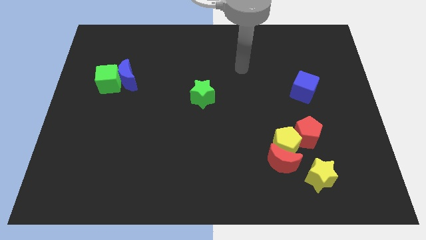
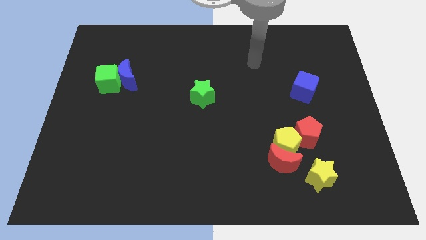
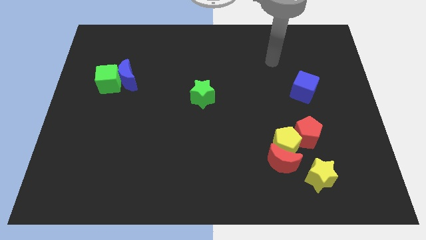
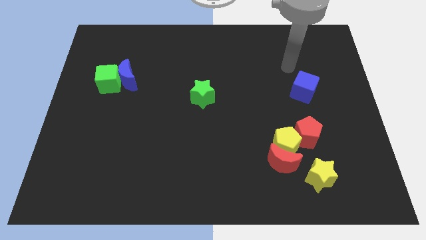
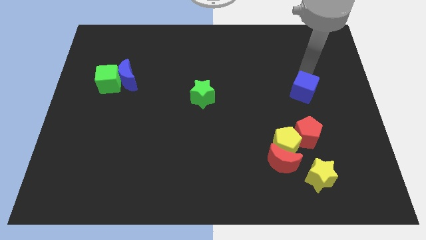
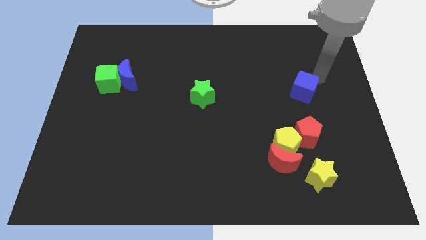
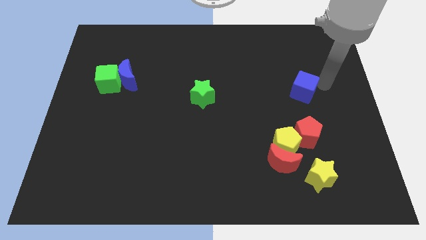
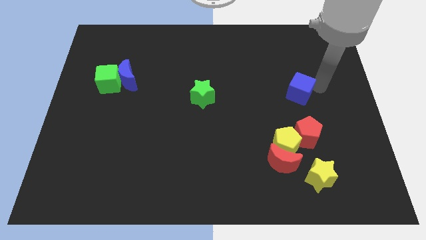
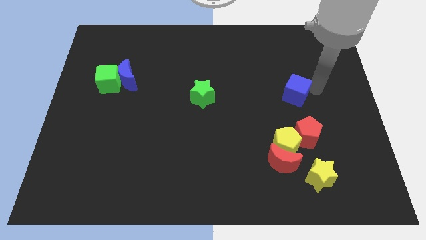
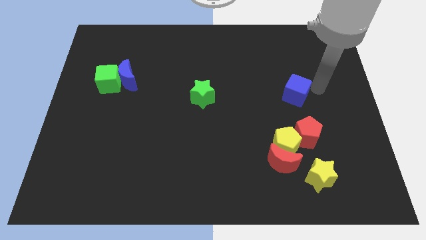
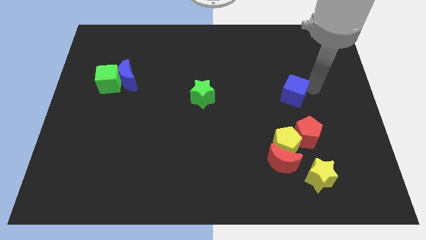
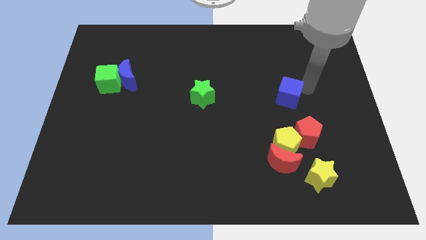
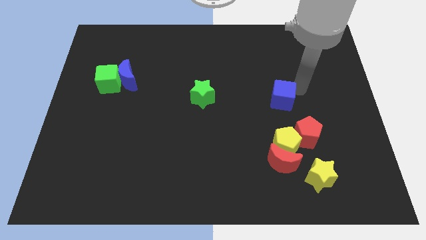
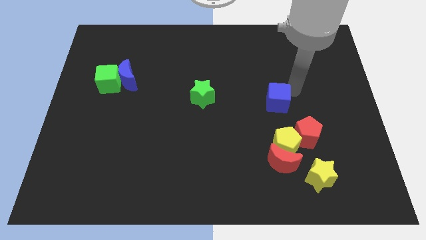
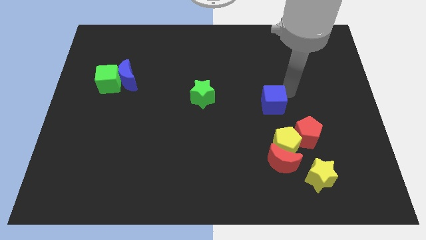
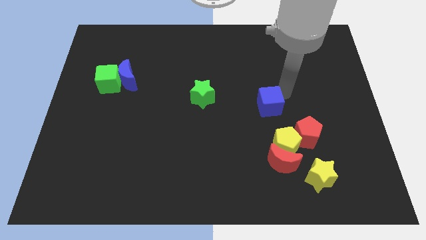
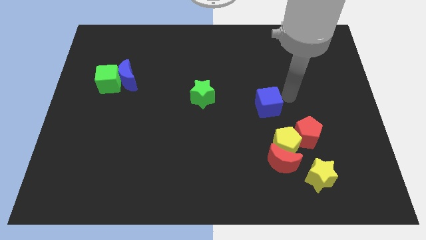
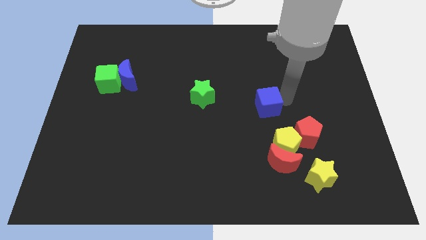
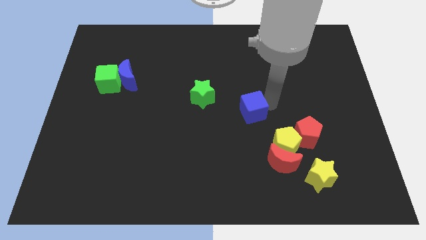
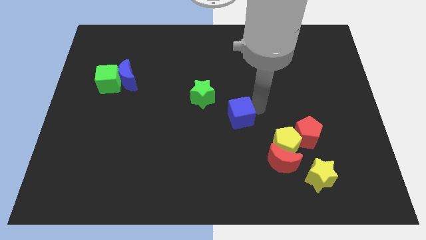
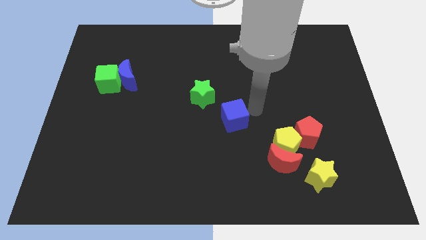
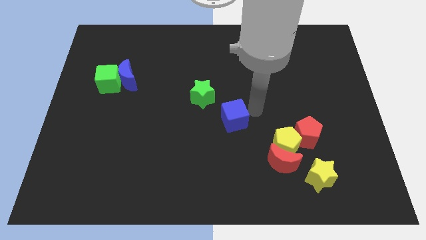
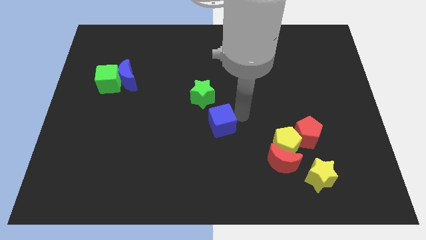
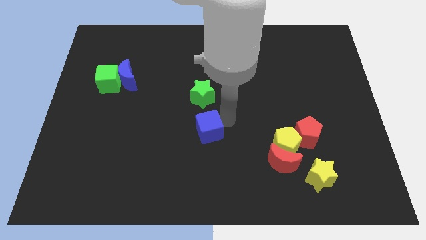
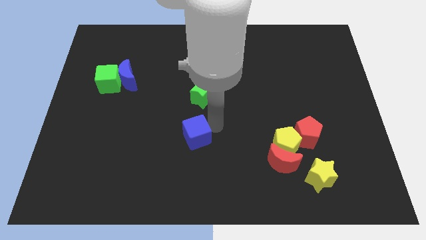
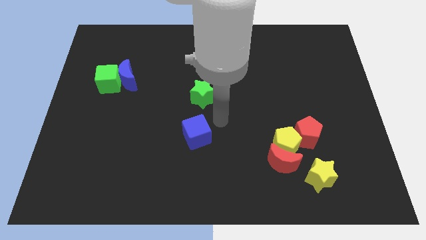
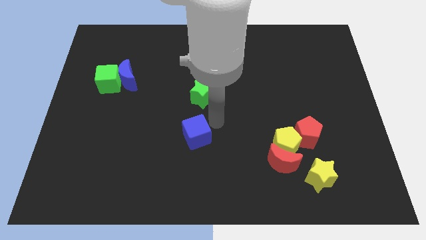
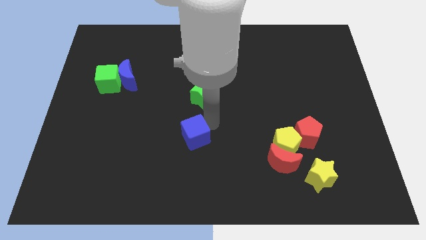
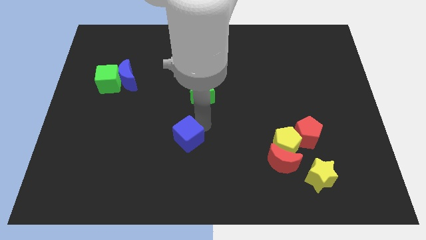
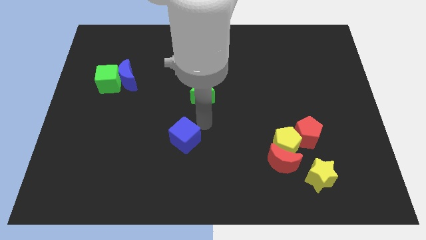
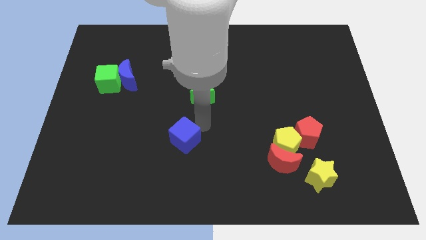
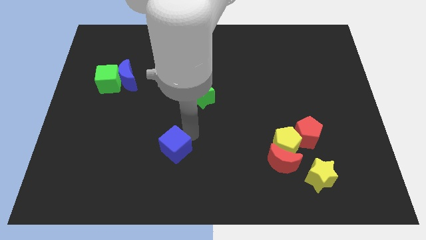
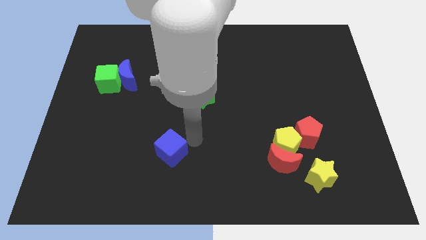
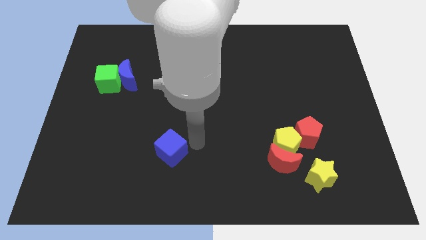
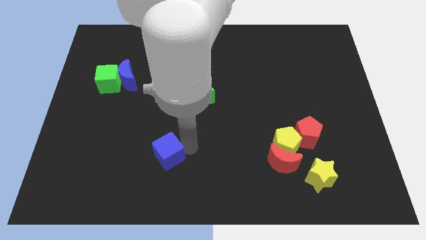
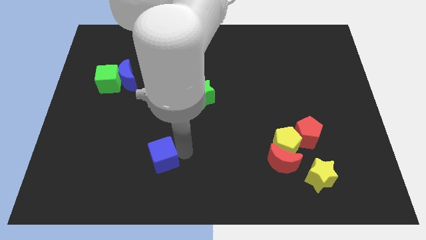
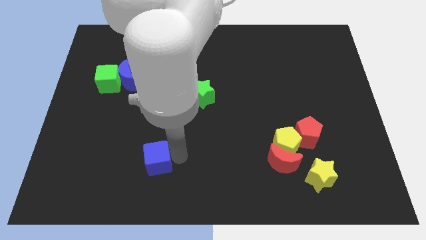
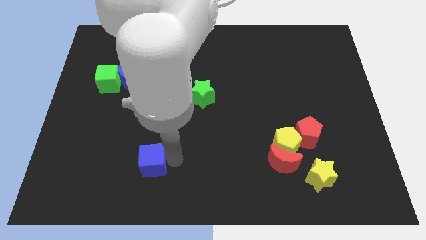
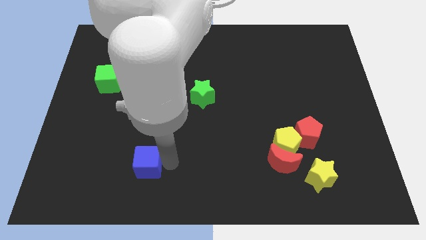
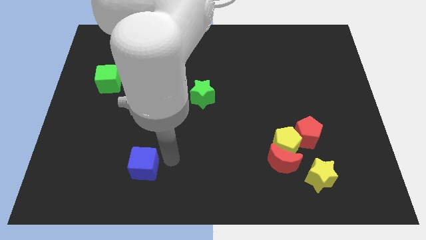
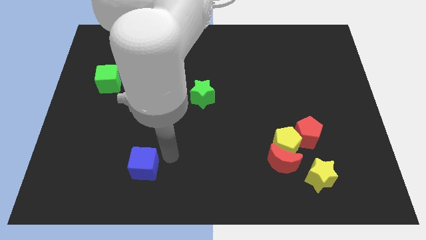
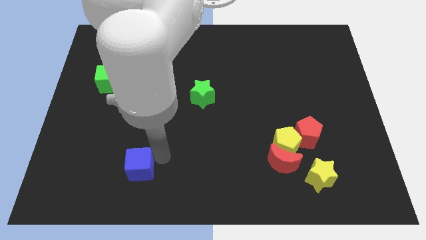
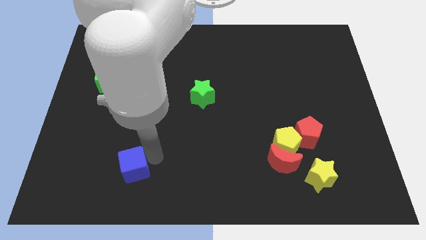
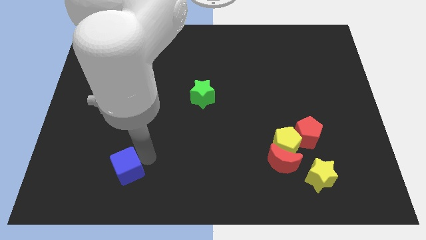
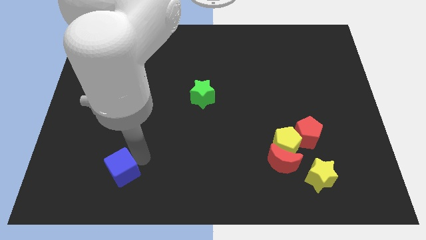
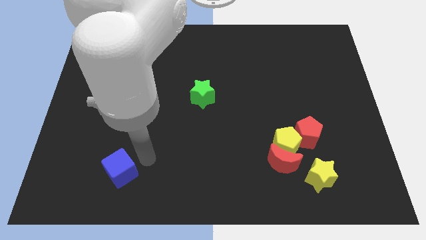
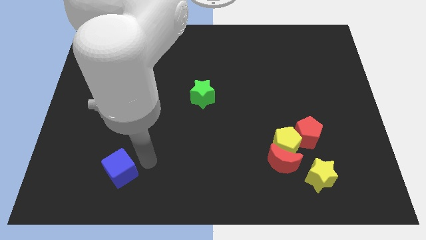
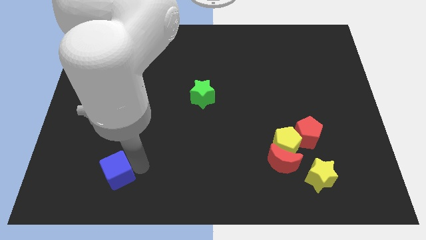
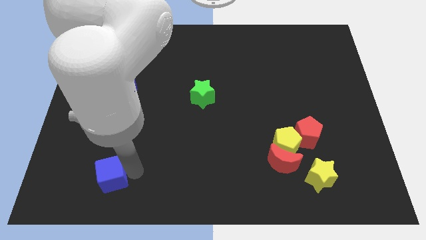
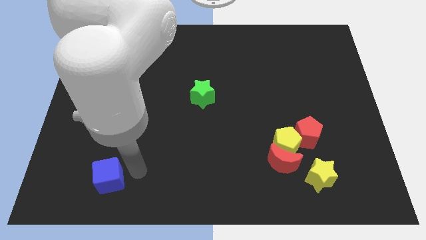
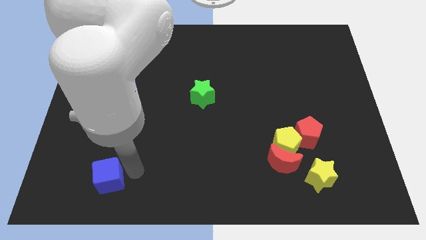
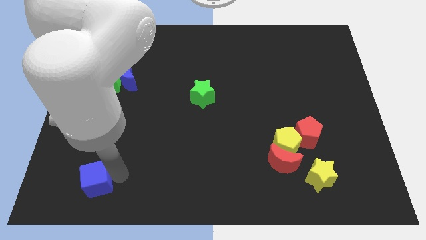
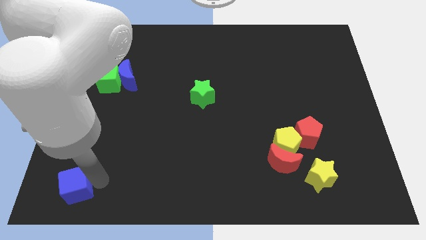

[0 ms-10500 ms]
put the blue cube to the bottom left corner

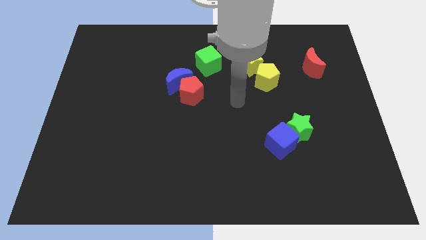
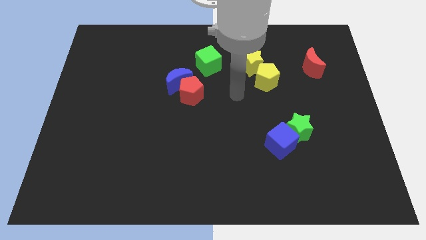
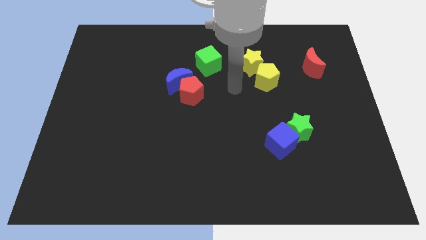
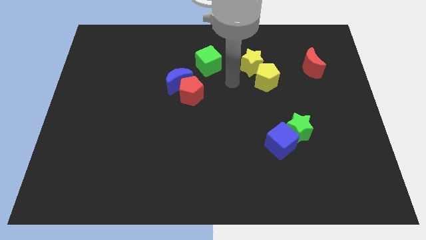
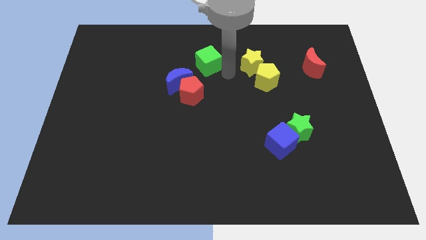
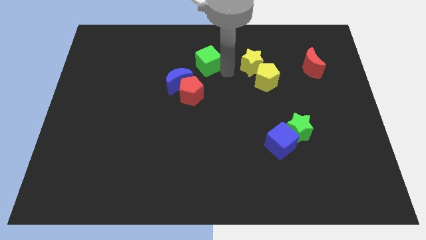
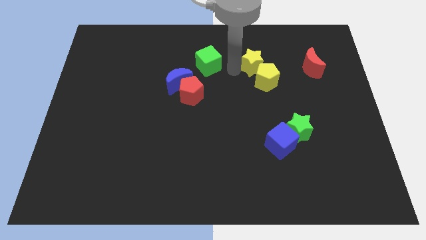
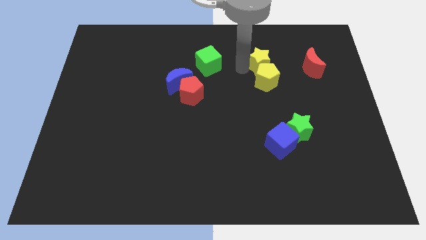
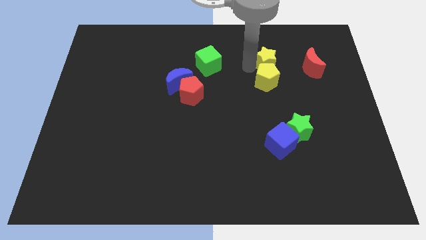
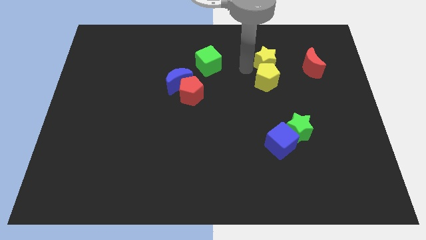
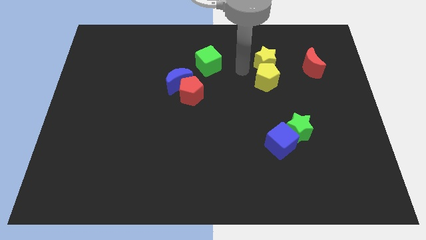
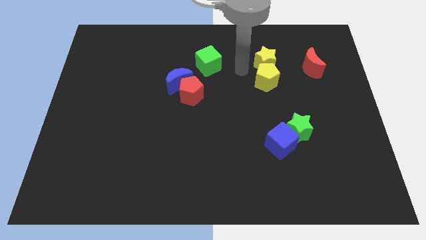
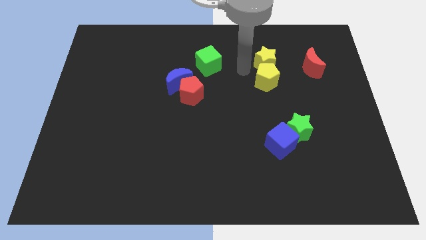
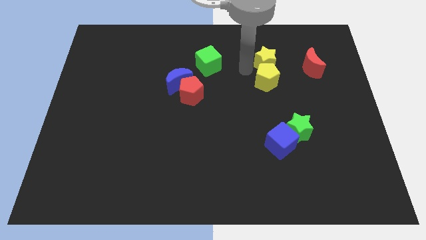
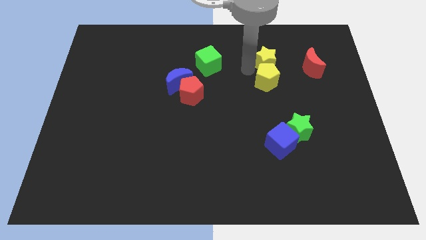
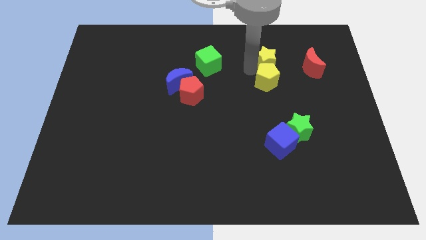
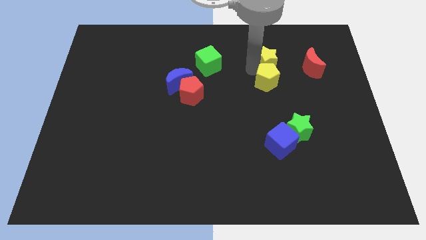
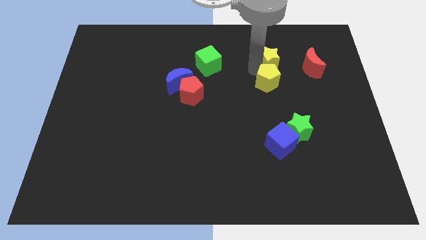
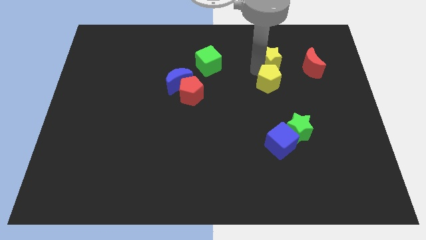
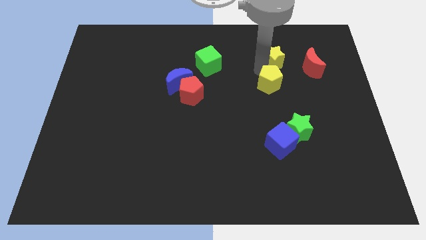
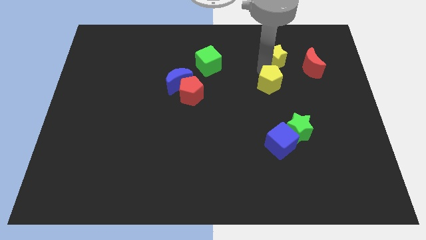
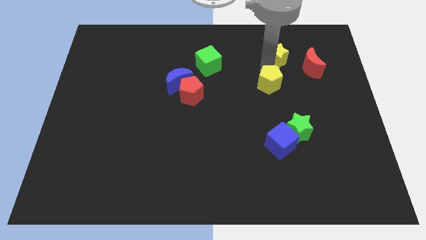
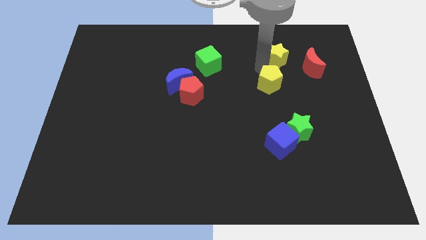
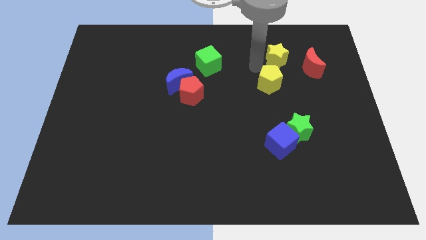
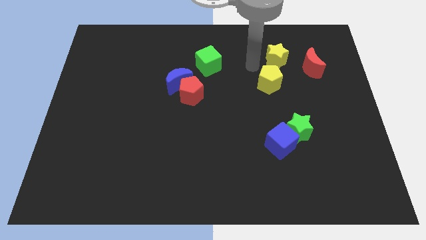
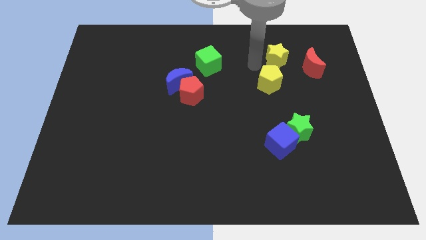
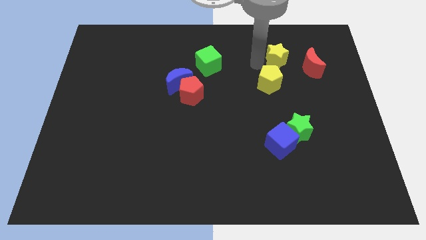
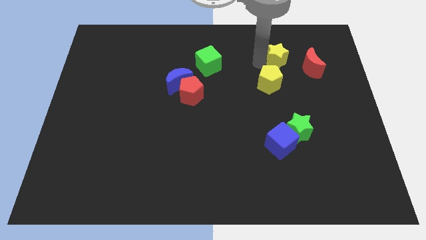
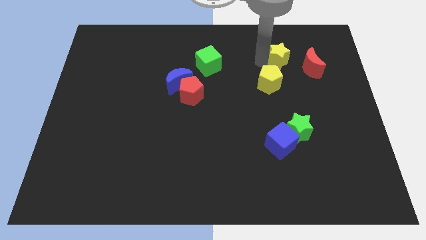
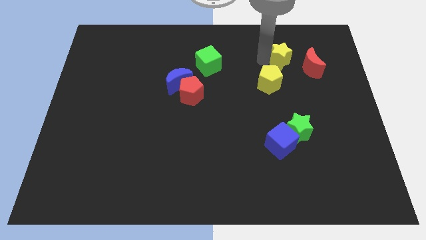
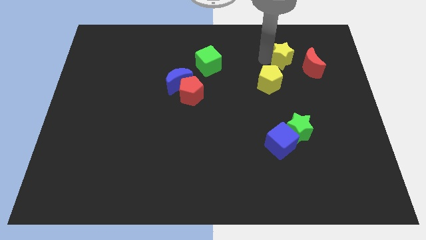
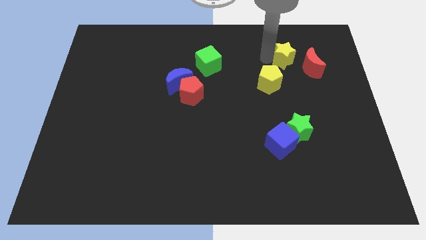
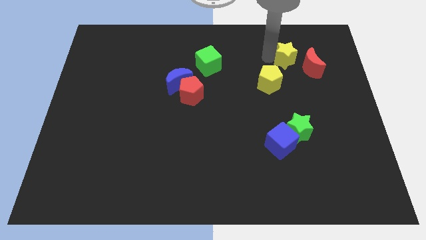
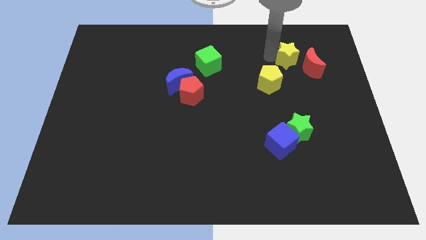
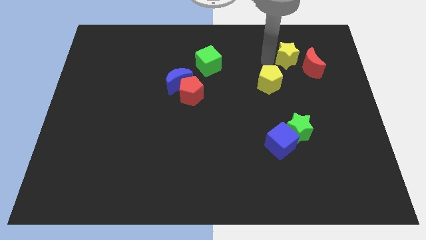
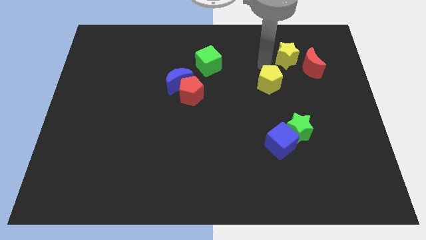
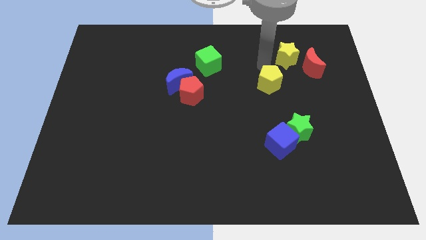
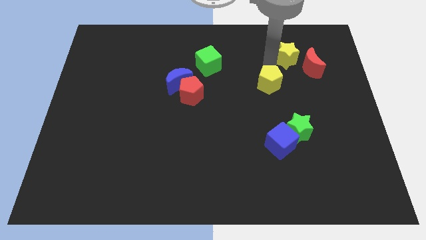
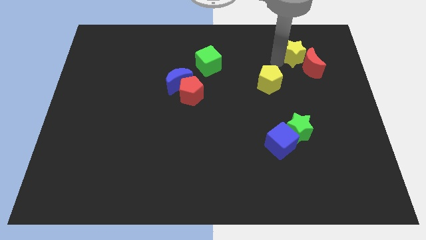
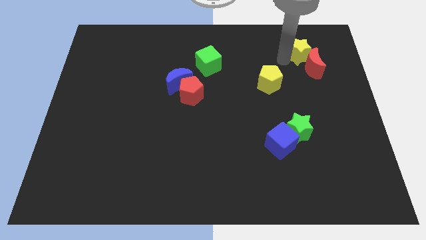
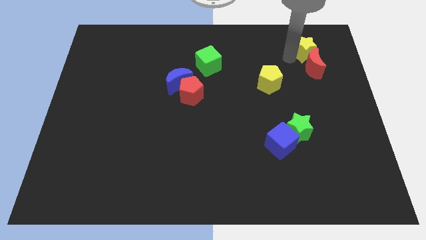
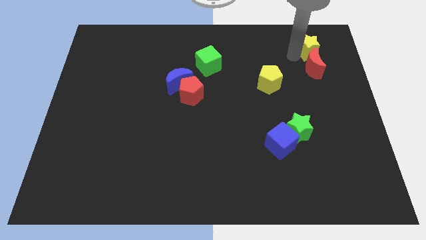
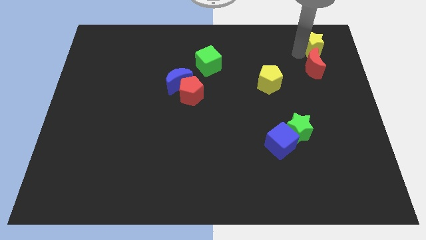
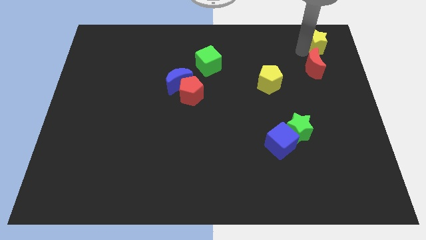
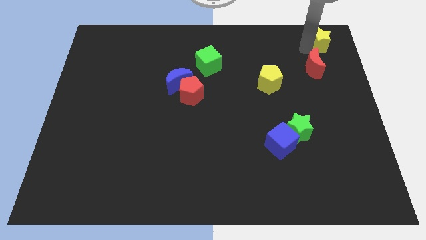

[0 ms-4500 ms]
slide the yellow star to the top right of the board
